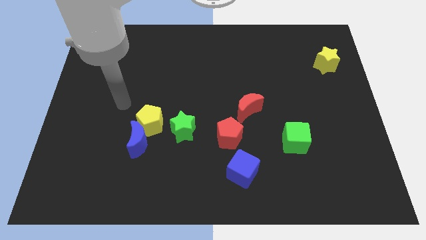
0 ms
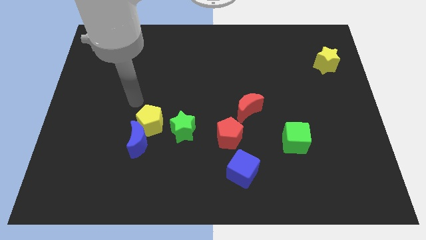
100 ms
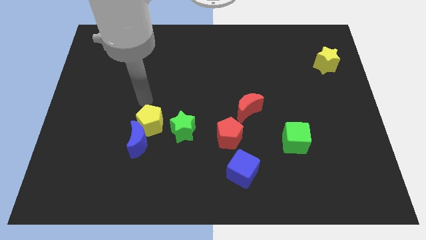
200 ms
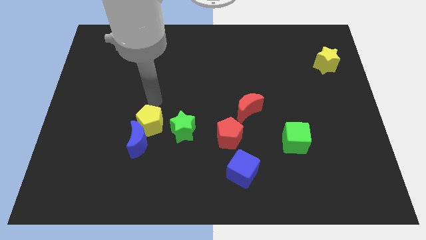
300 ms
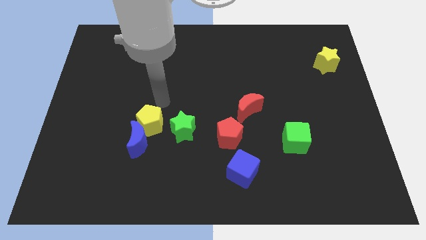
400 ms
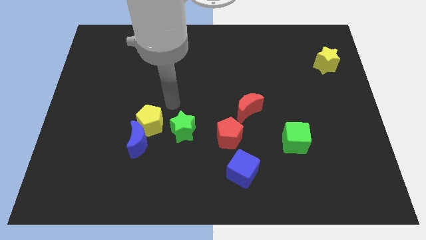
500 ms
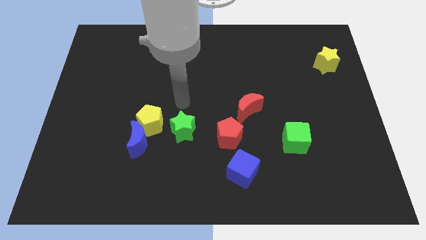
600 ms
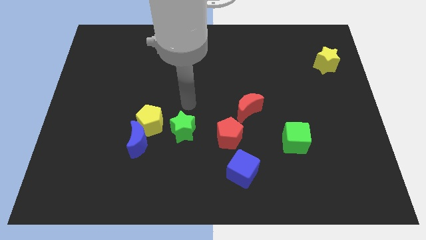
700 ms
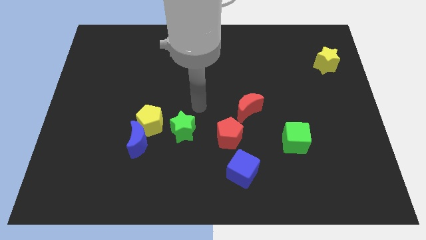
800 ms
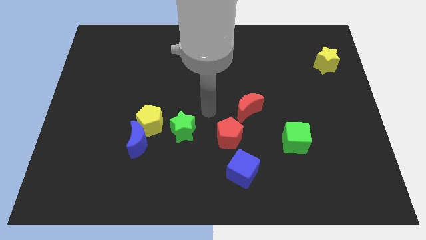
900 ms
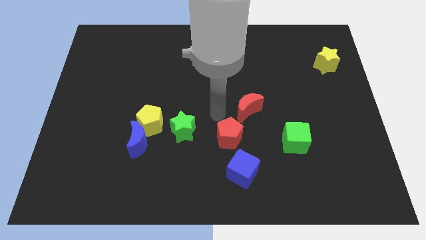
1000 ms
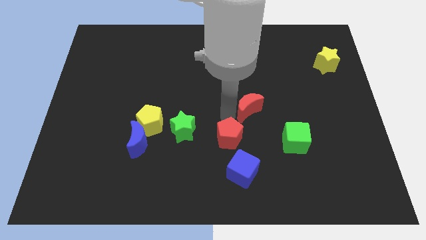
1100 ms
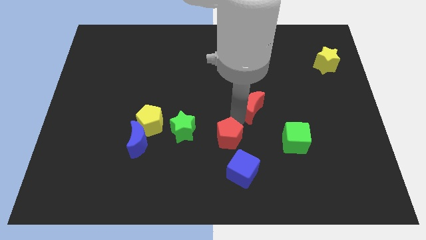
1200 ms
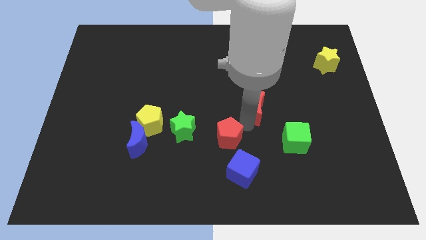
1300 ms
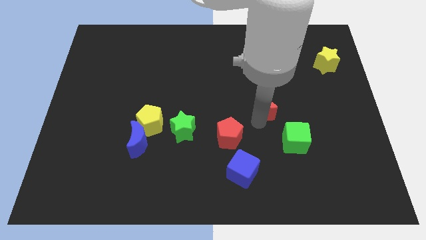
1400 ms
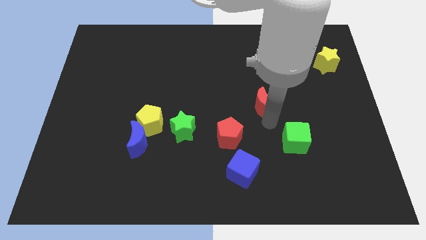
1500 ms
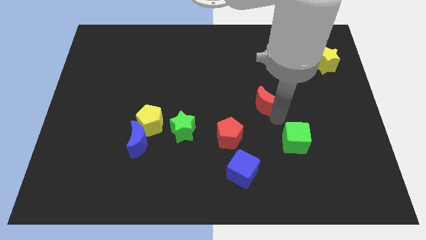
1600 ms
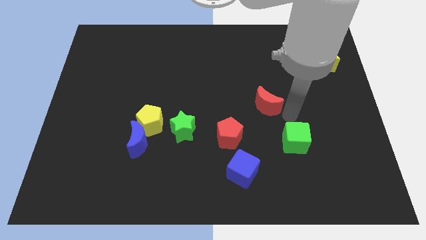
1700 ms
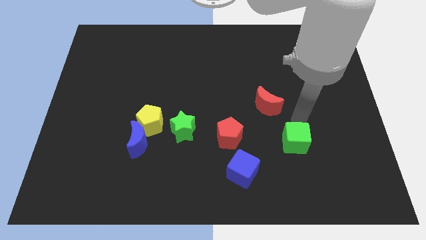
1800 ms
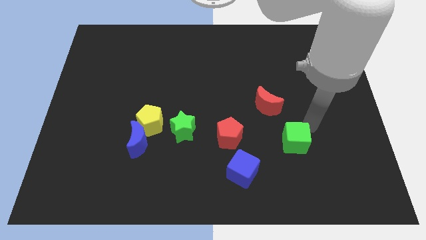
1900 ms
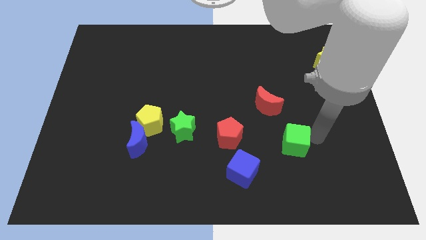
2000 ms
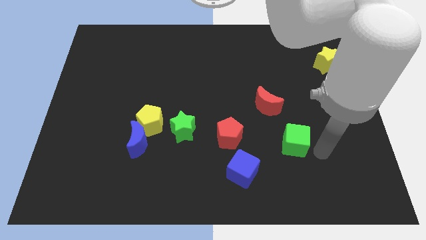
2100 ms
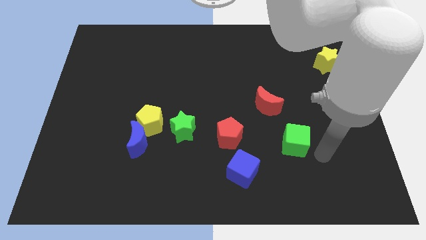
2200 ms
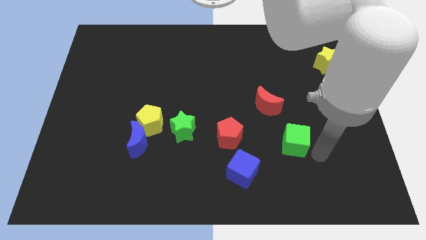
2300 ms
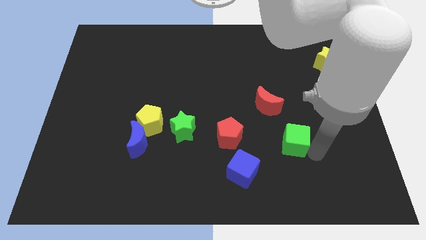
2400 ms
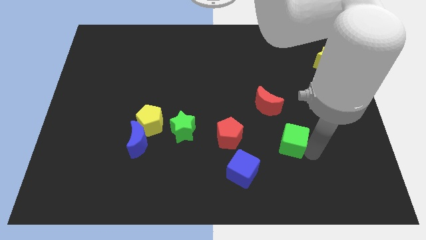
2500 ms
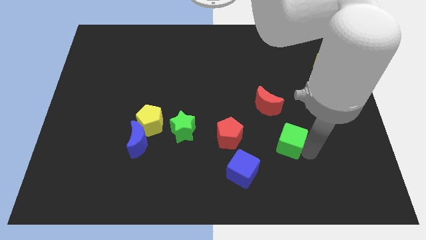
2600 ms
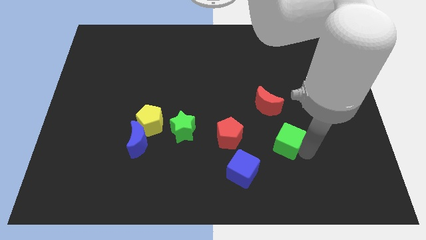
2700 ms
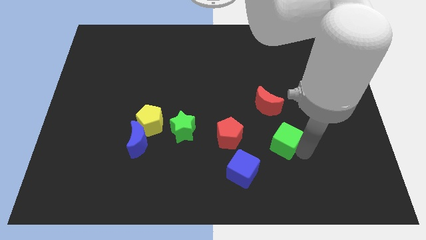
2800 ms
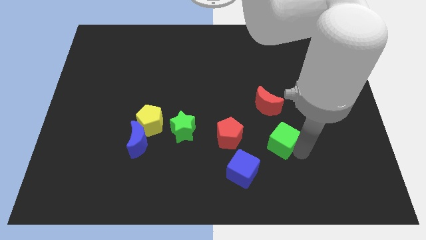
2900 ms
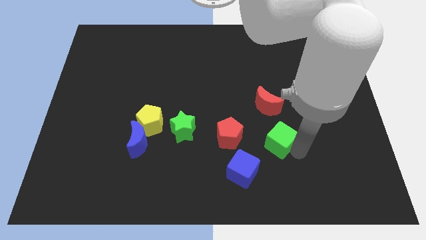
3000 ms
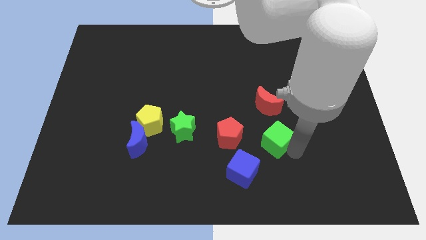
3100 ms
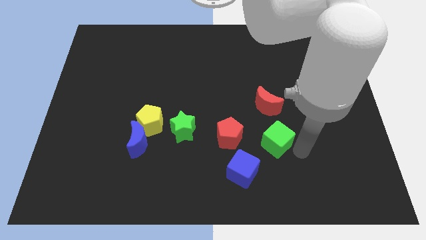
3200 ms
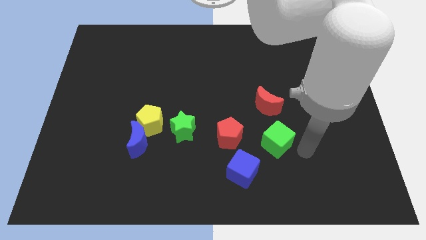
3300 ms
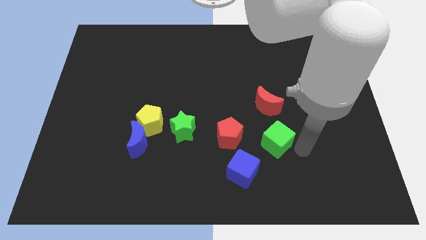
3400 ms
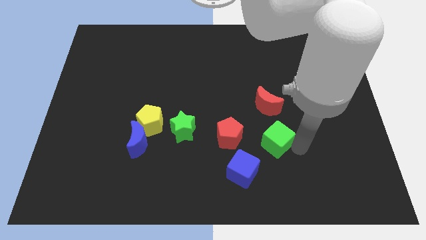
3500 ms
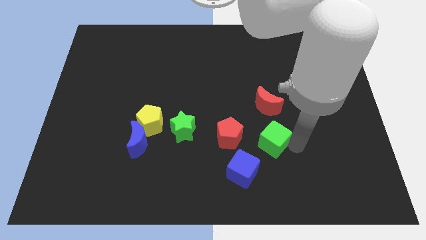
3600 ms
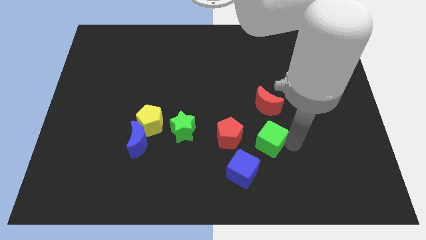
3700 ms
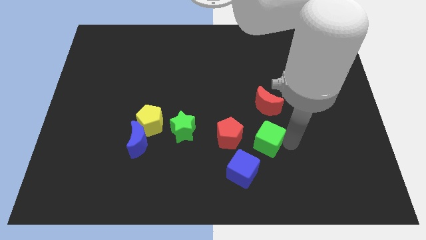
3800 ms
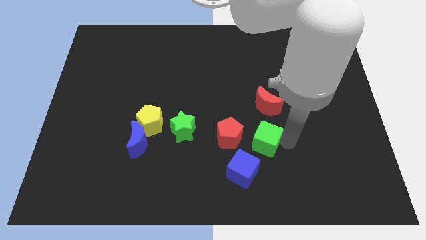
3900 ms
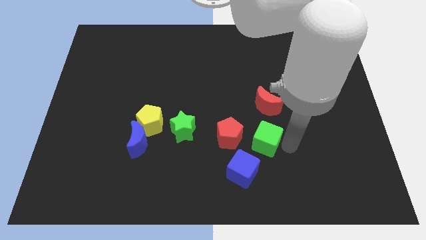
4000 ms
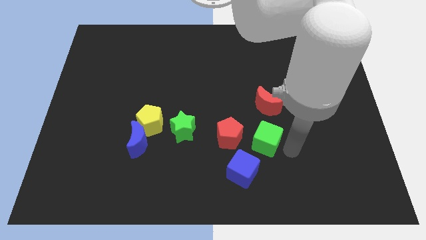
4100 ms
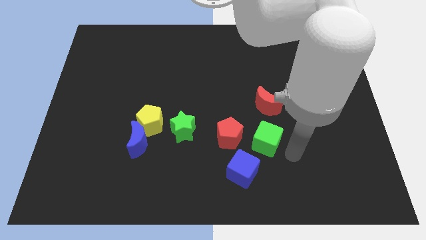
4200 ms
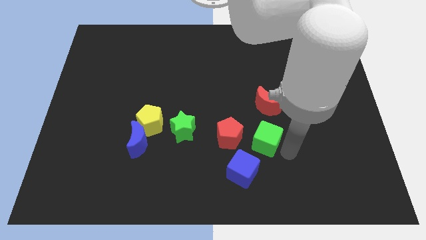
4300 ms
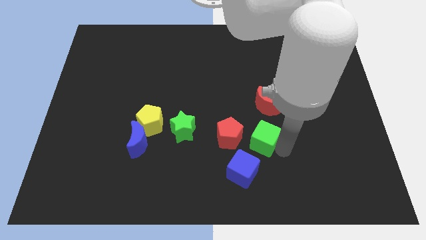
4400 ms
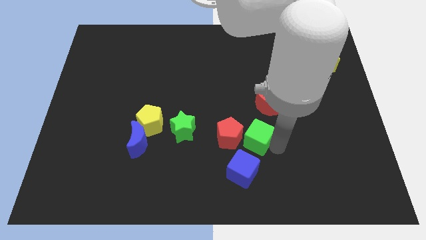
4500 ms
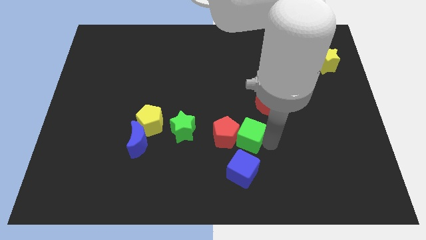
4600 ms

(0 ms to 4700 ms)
push the green cube towards the red pentagon

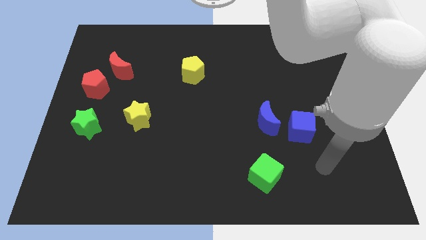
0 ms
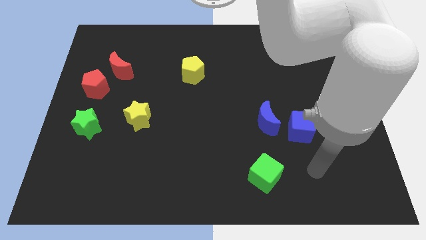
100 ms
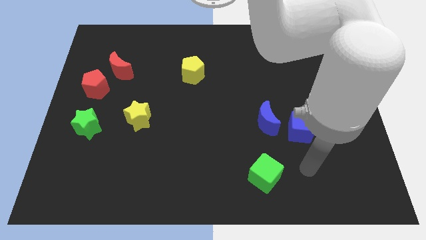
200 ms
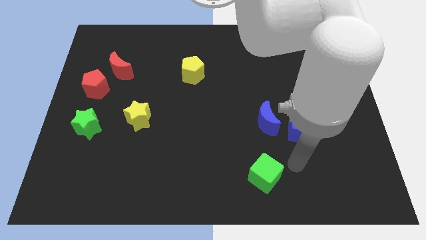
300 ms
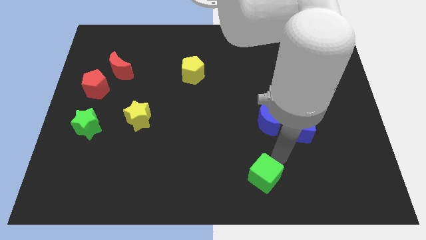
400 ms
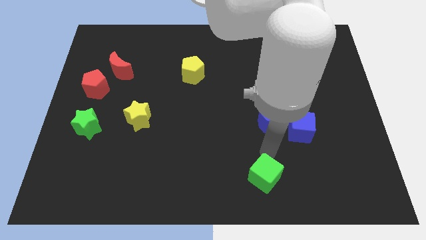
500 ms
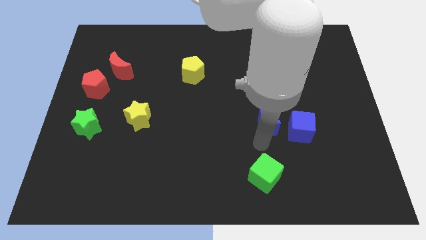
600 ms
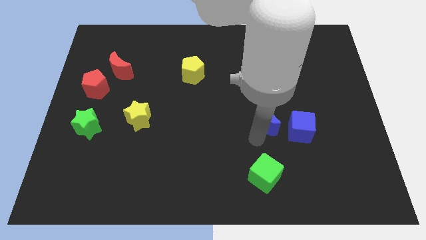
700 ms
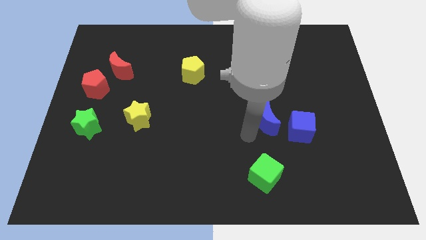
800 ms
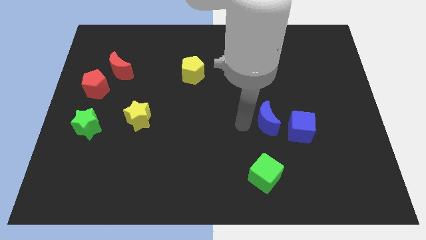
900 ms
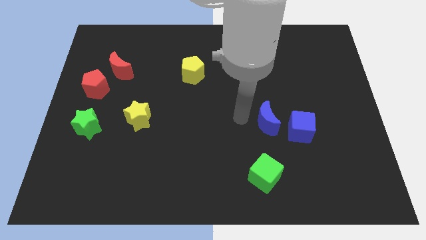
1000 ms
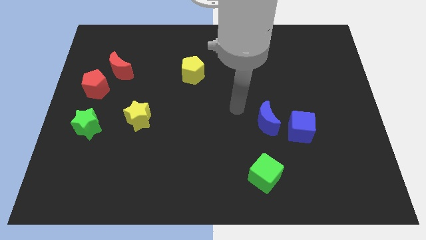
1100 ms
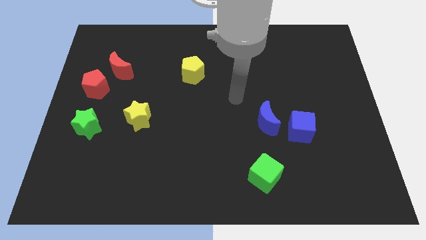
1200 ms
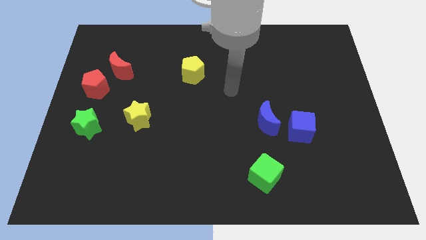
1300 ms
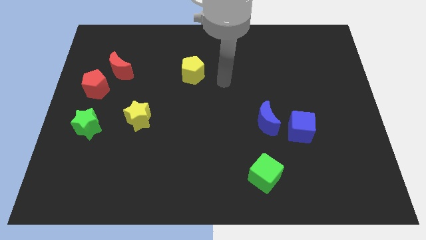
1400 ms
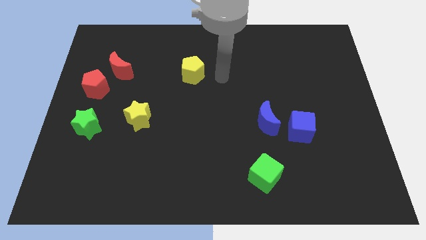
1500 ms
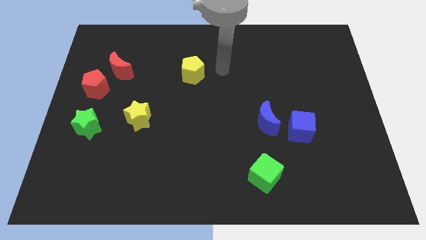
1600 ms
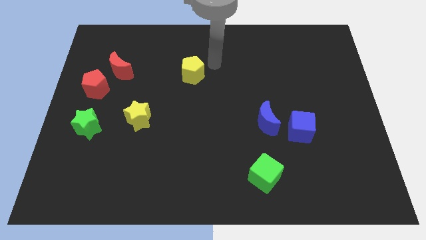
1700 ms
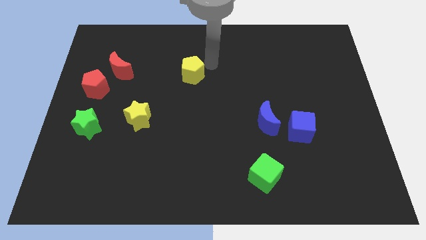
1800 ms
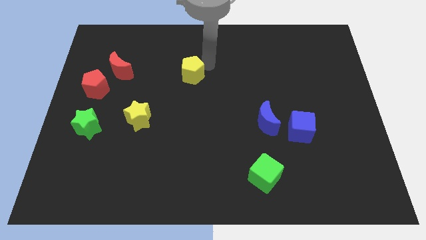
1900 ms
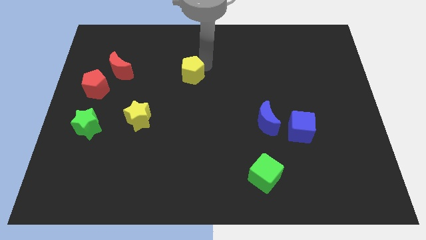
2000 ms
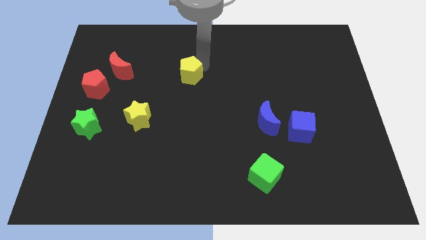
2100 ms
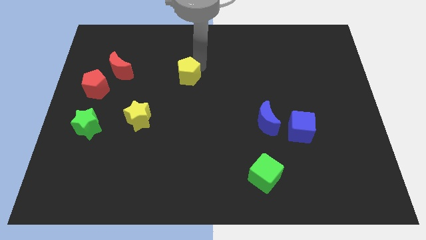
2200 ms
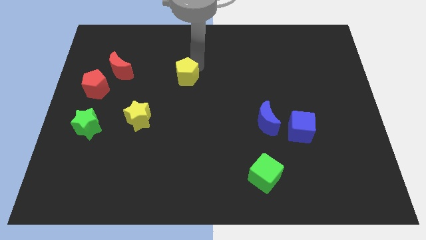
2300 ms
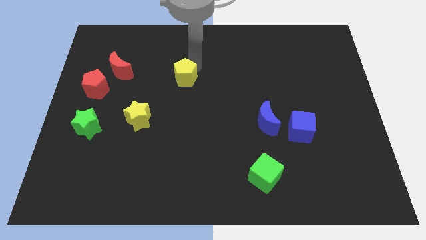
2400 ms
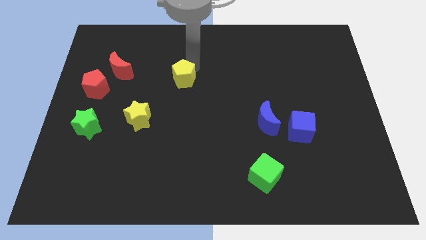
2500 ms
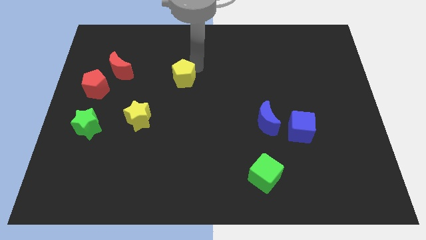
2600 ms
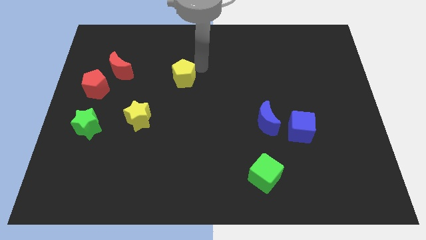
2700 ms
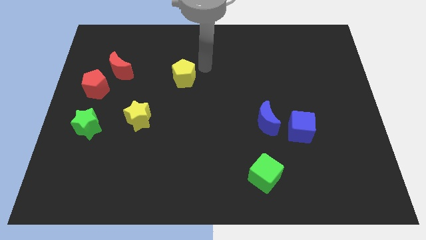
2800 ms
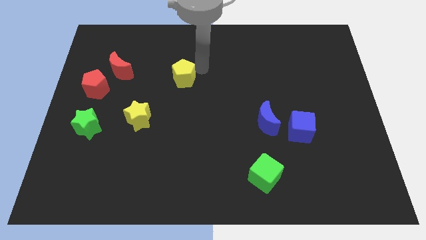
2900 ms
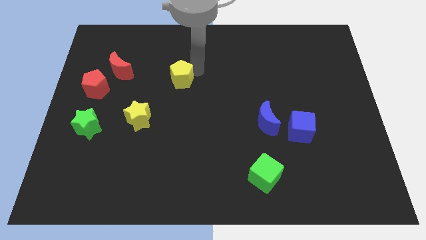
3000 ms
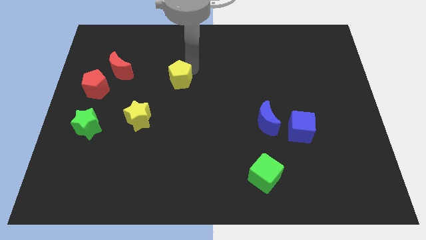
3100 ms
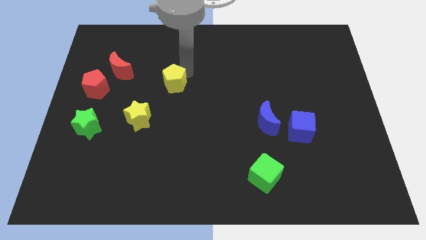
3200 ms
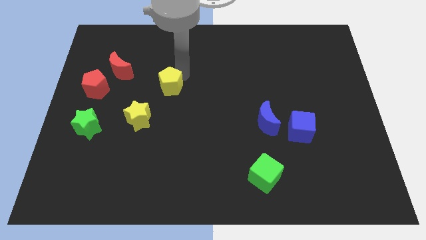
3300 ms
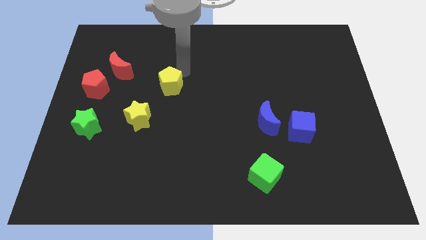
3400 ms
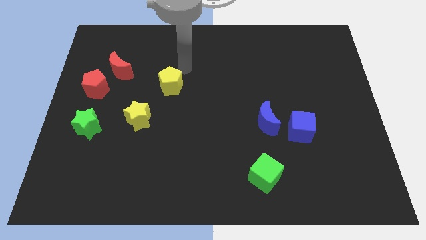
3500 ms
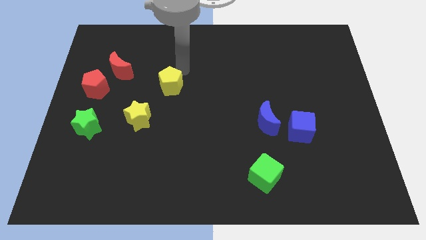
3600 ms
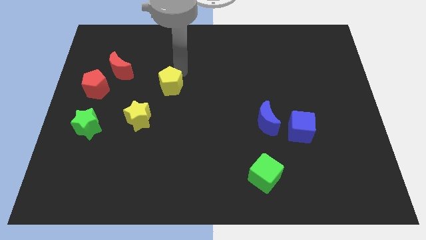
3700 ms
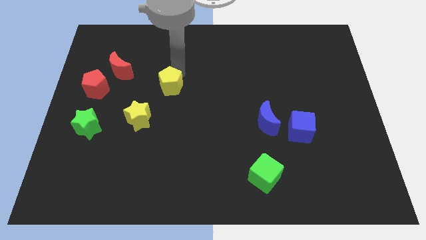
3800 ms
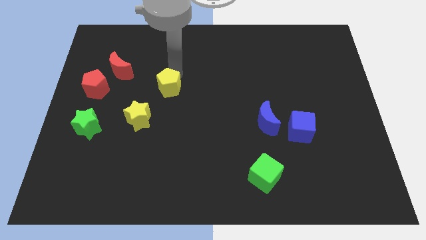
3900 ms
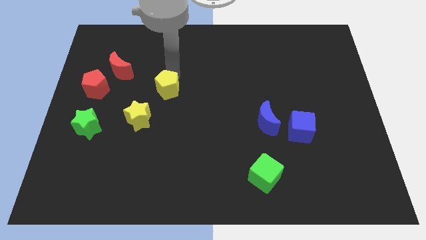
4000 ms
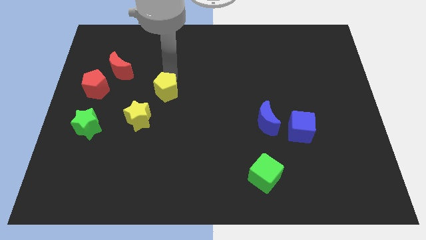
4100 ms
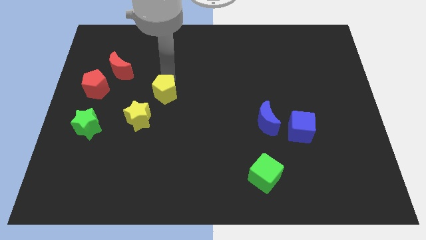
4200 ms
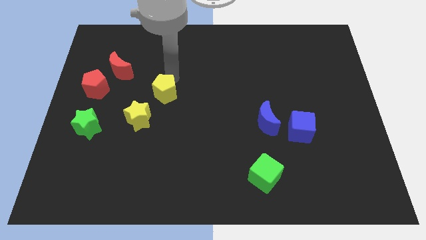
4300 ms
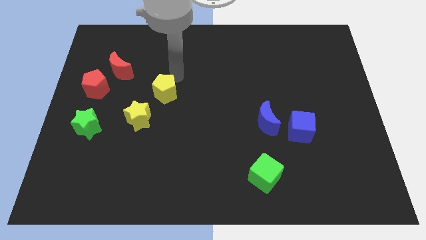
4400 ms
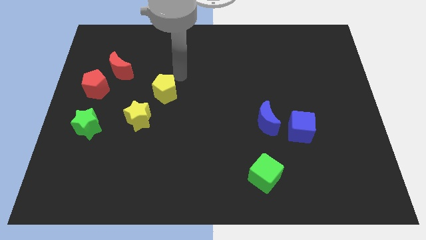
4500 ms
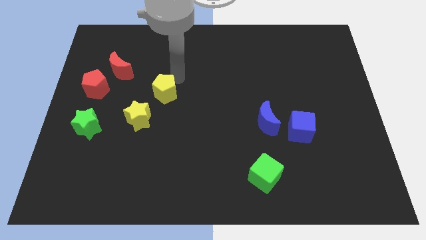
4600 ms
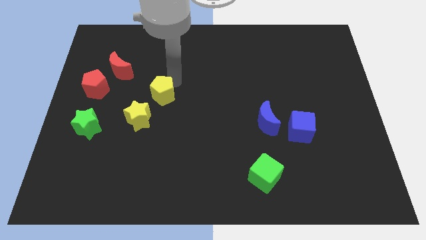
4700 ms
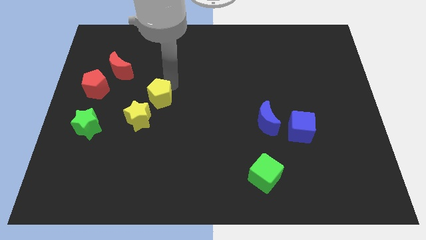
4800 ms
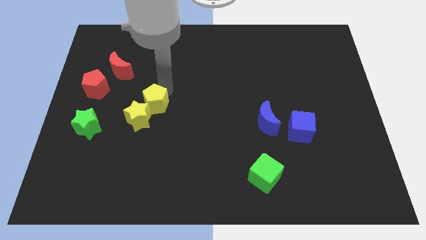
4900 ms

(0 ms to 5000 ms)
slide the yellow pentagon close to the yellow star
